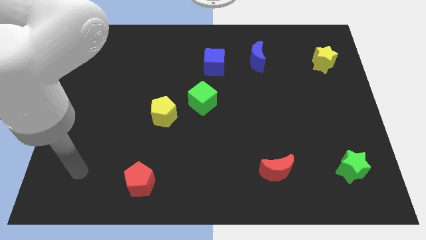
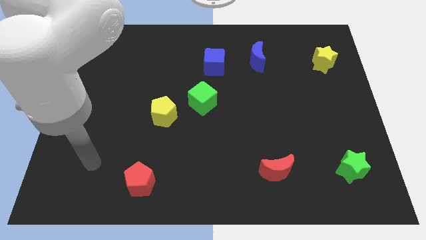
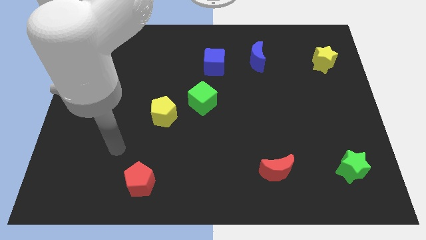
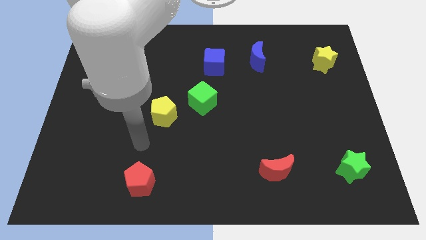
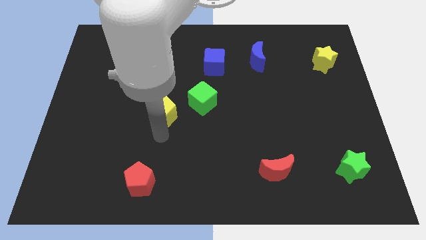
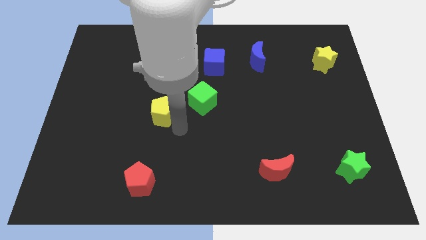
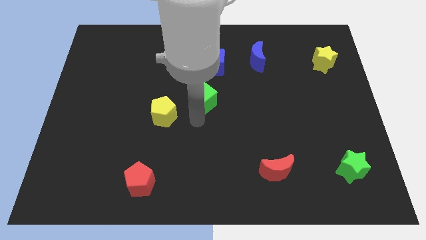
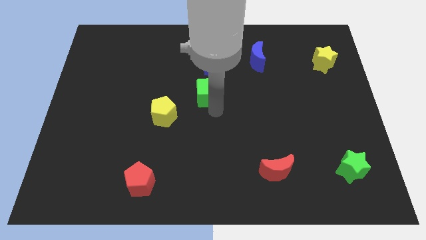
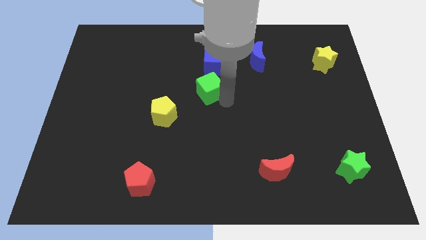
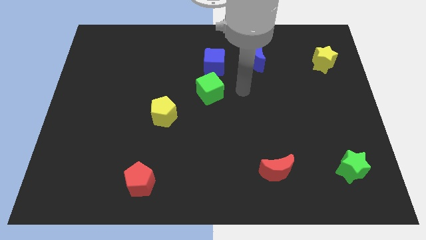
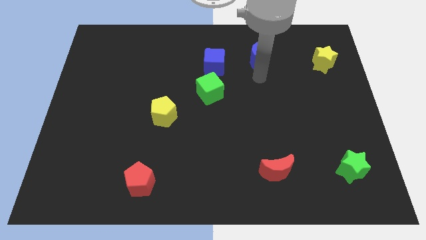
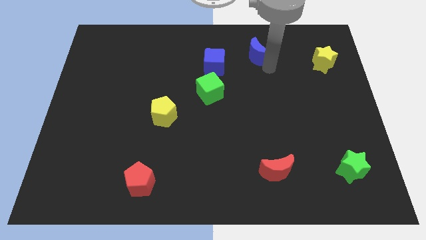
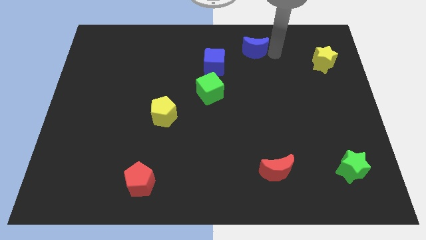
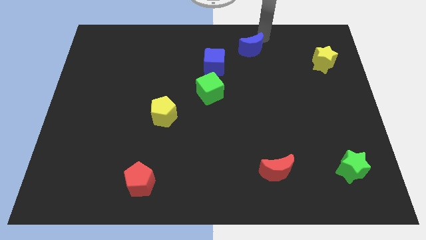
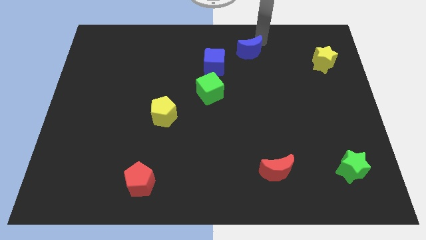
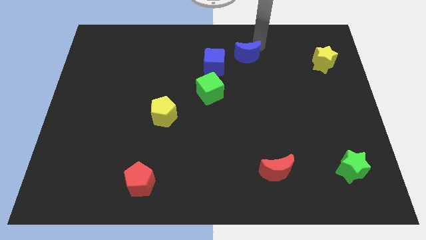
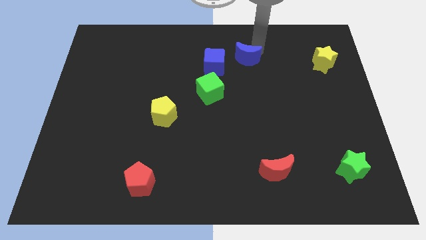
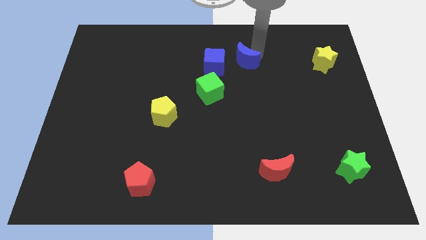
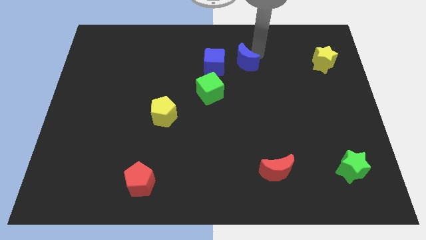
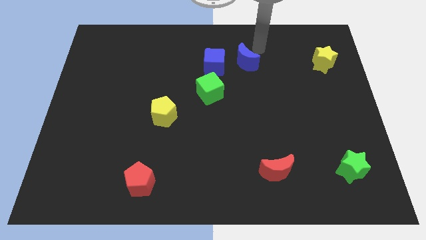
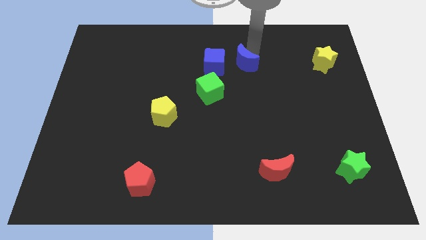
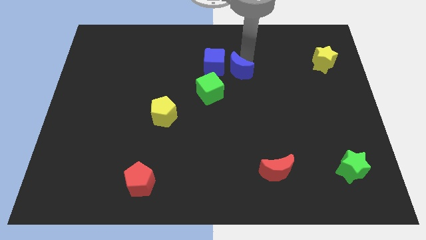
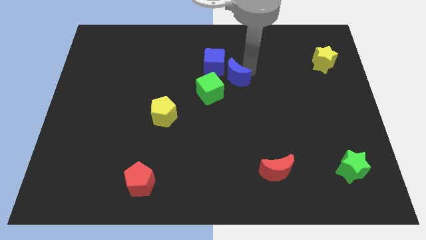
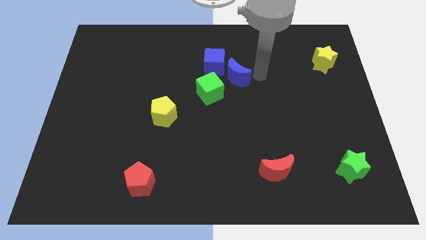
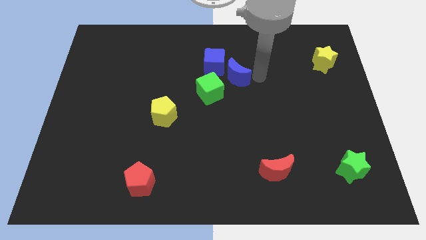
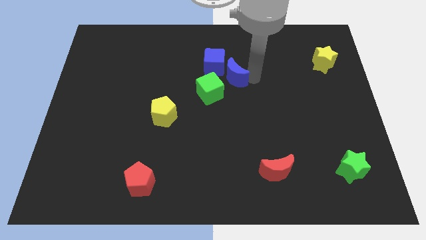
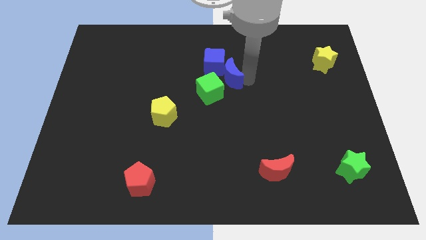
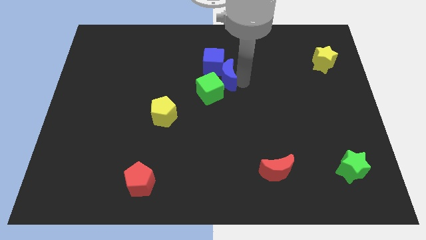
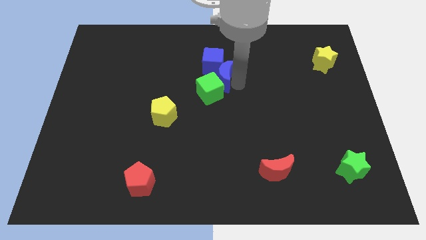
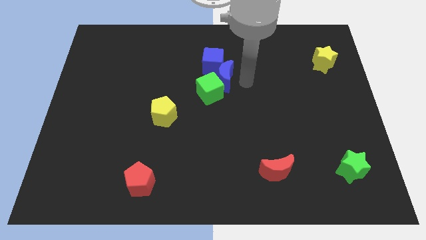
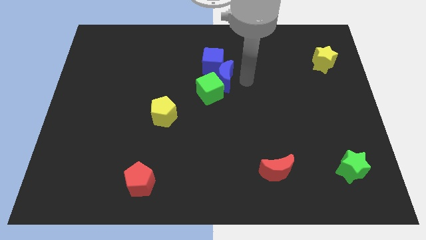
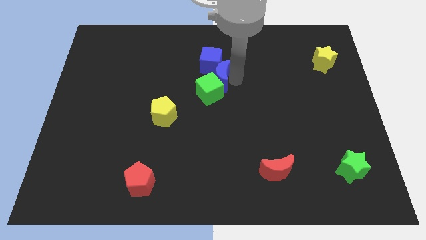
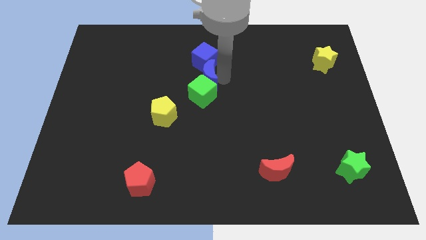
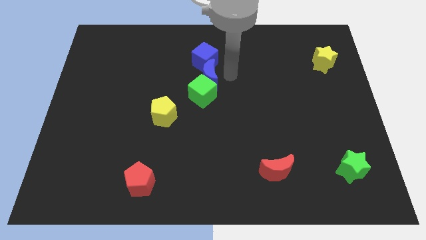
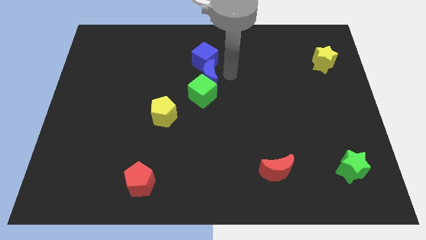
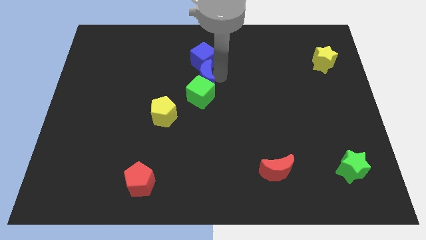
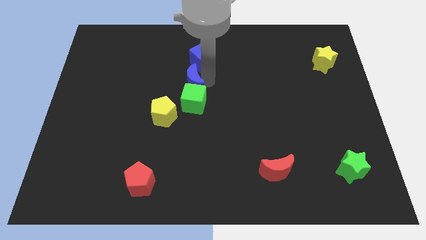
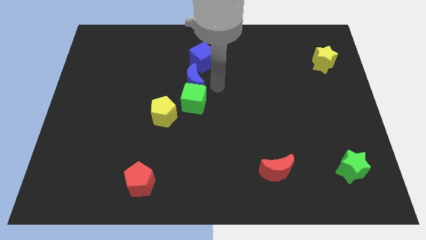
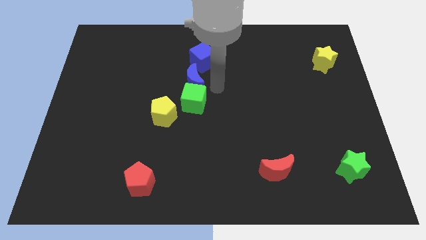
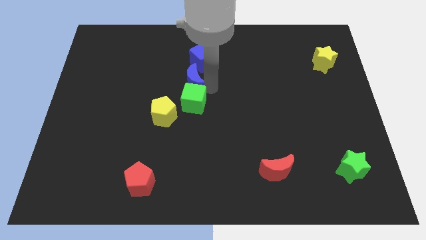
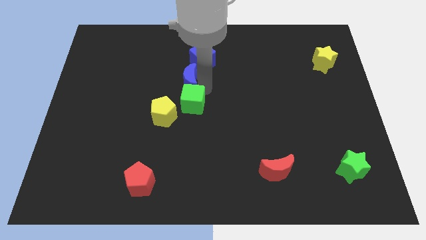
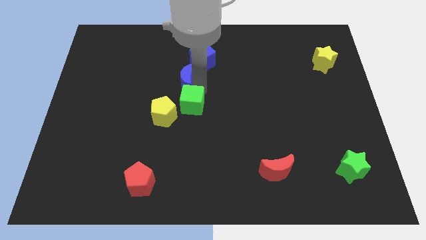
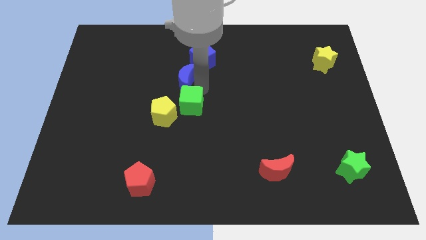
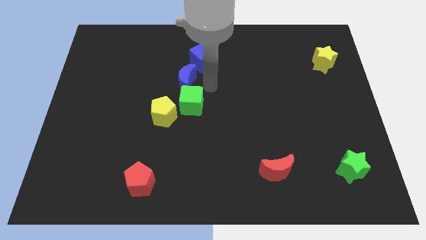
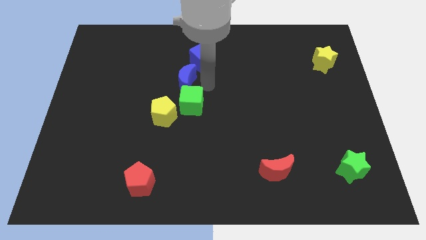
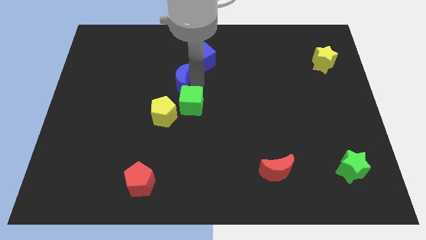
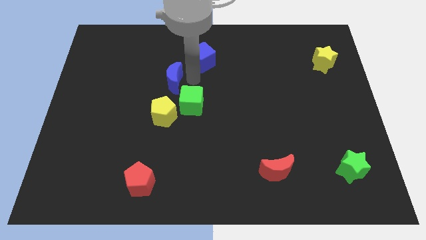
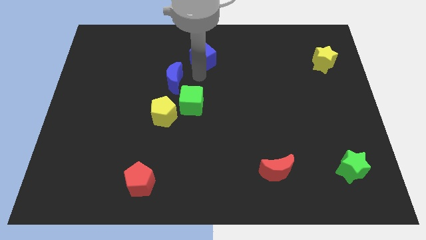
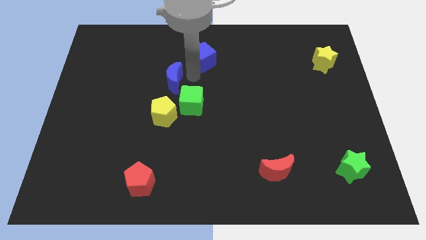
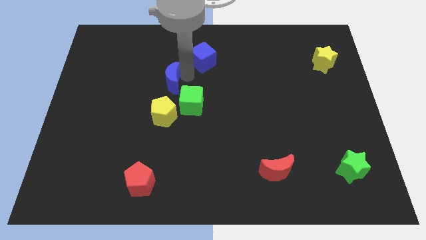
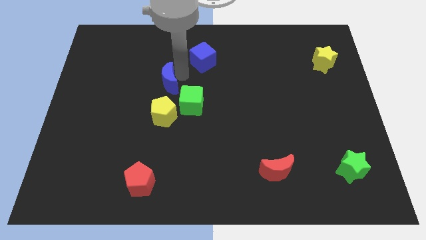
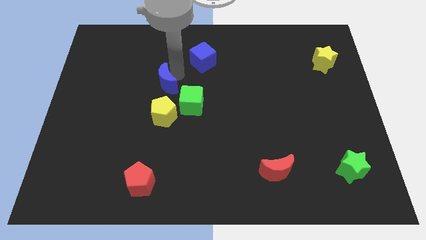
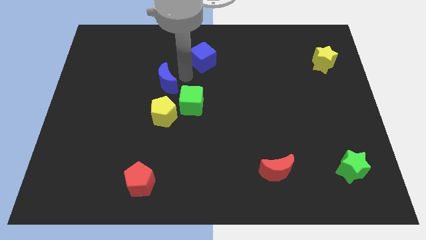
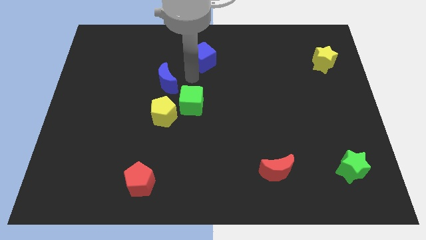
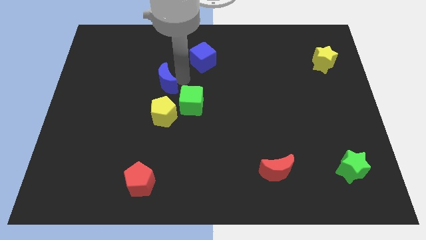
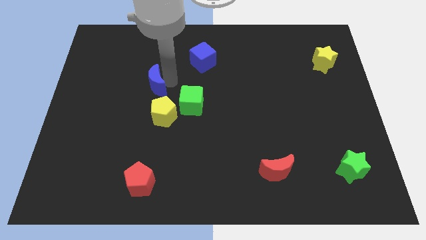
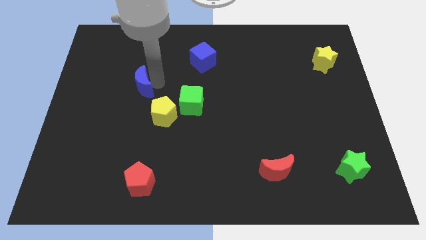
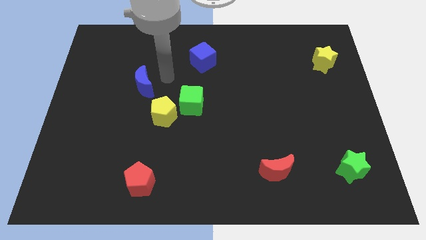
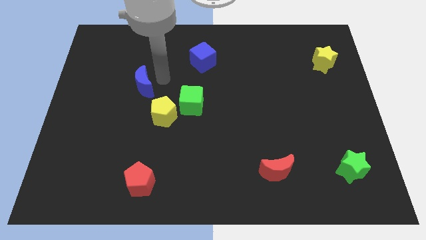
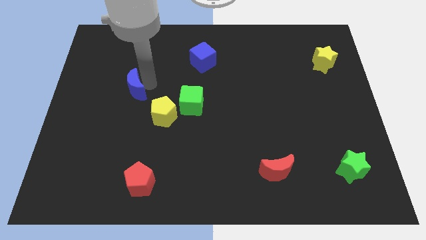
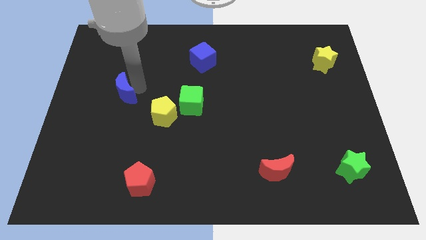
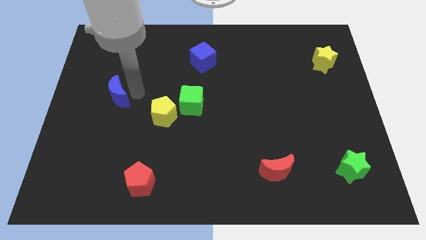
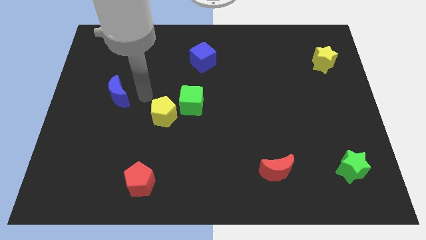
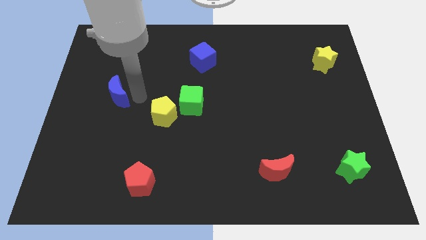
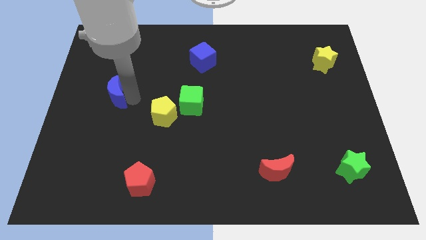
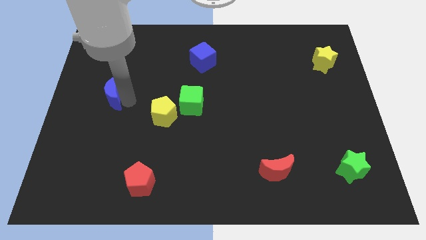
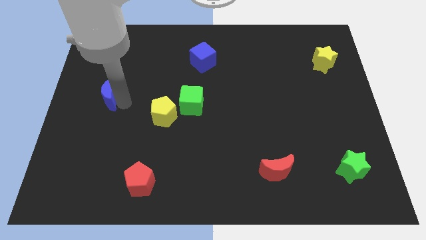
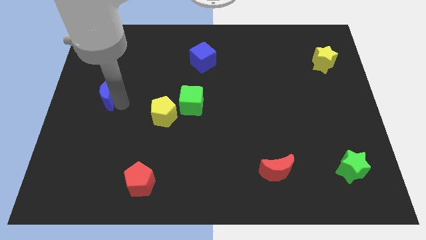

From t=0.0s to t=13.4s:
put the blue moon to the left side
